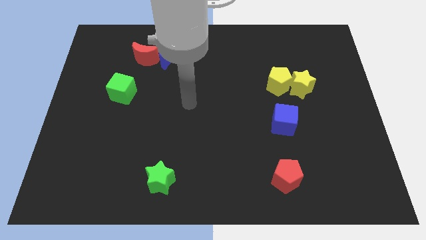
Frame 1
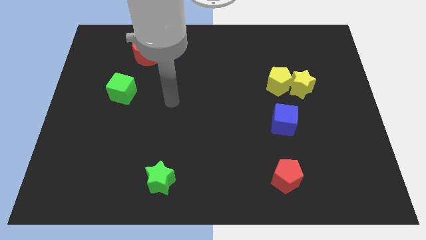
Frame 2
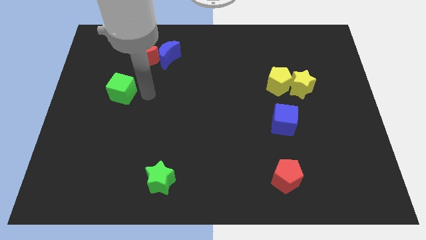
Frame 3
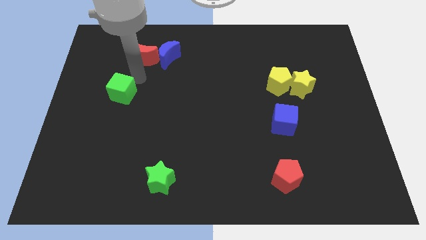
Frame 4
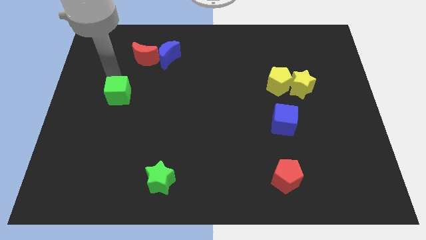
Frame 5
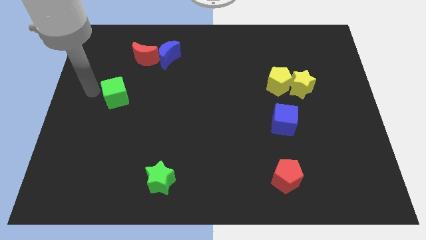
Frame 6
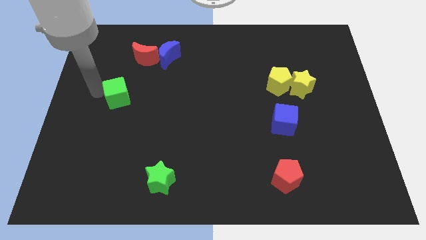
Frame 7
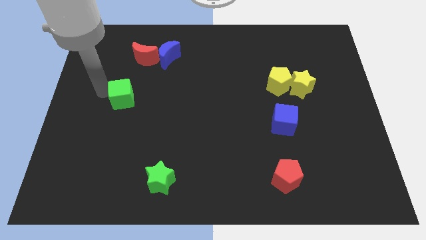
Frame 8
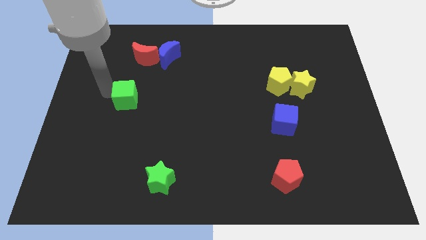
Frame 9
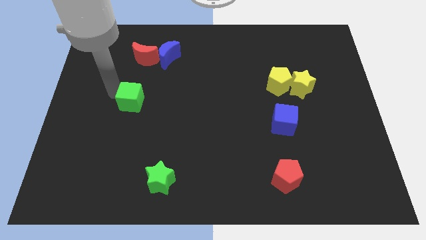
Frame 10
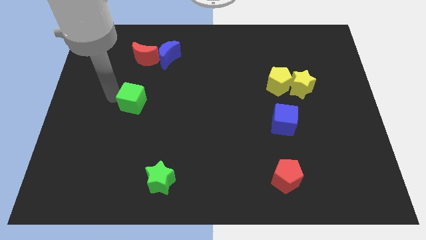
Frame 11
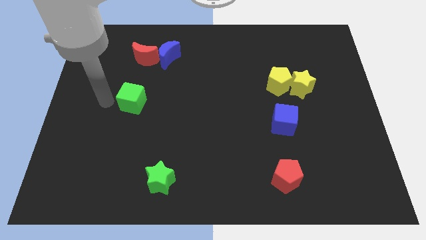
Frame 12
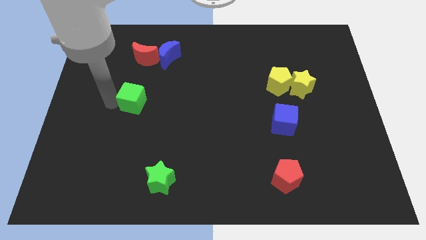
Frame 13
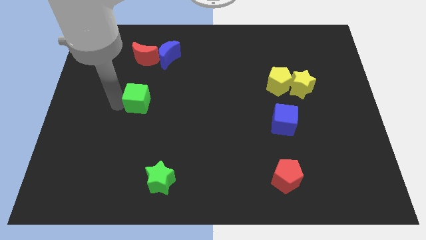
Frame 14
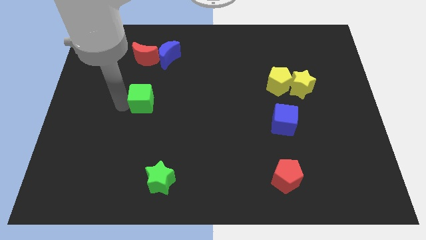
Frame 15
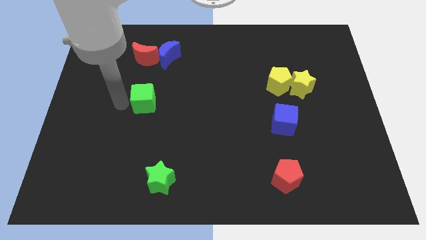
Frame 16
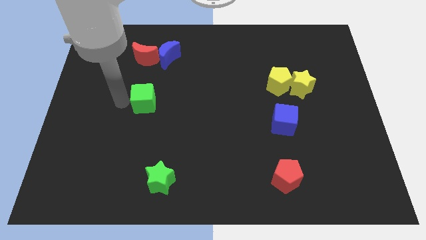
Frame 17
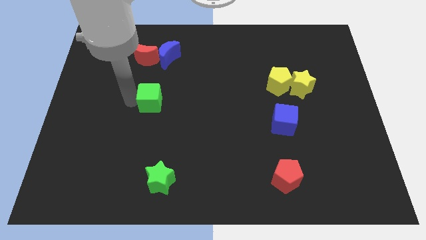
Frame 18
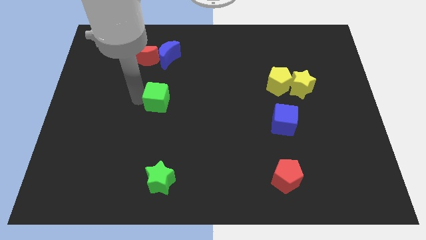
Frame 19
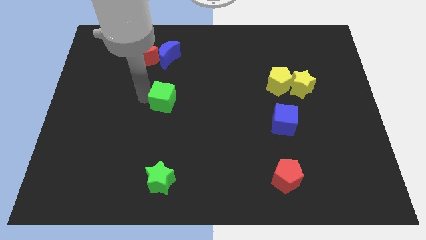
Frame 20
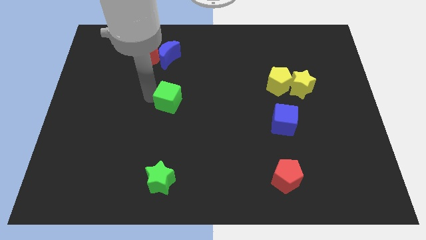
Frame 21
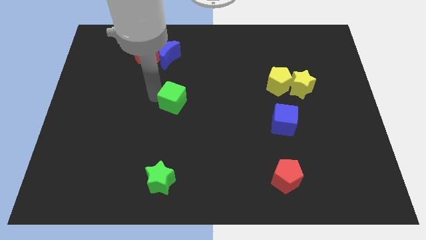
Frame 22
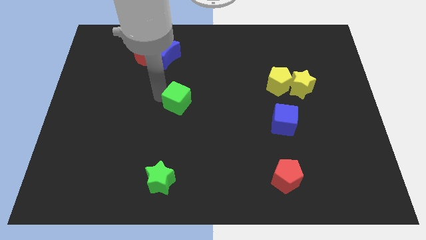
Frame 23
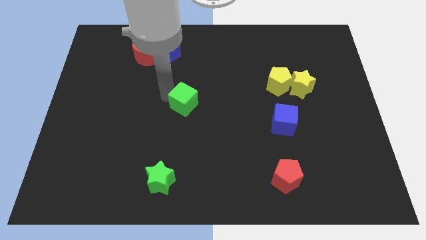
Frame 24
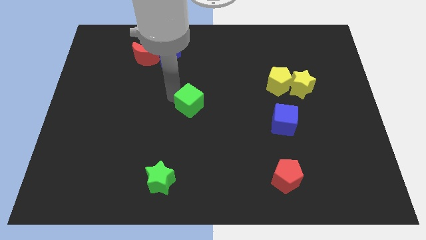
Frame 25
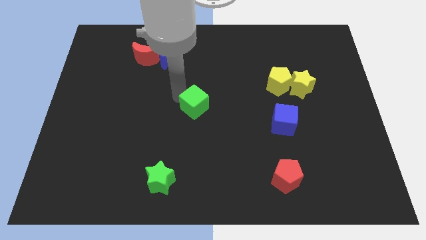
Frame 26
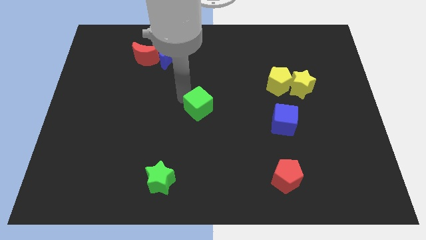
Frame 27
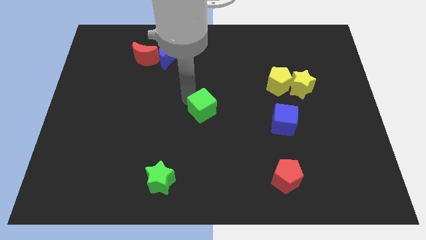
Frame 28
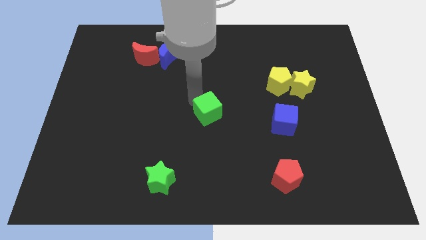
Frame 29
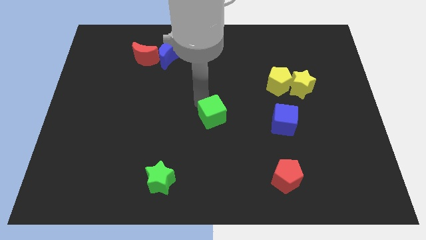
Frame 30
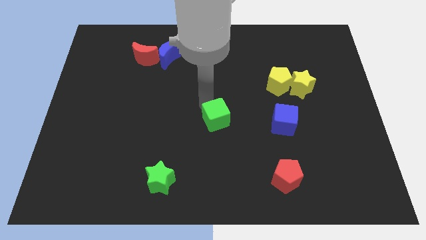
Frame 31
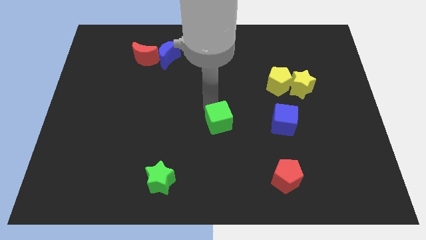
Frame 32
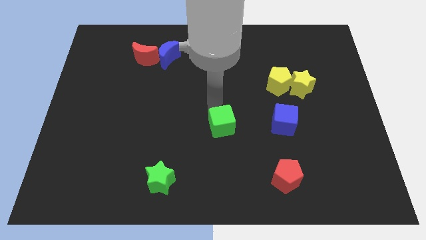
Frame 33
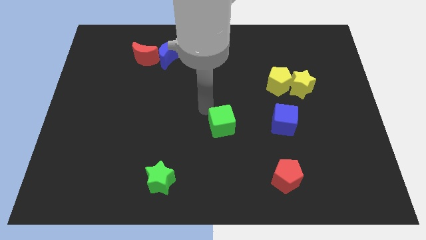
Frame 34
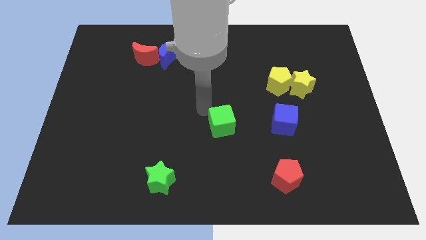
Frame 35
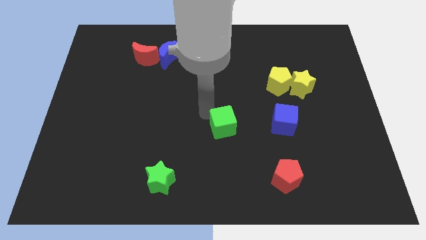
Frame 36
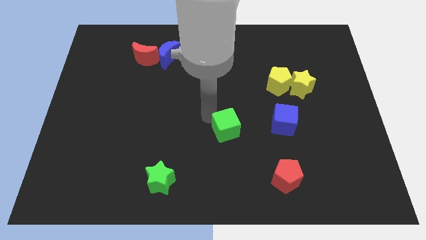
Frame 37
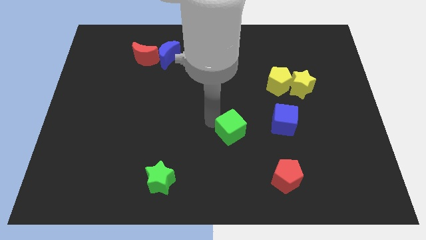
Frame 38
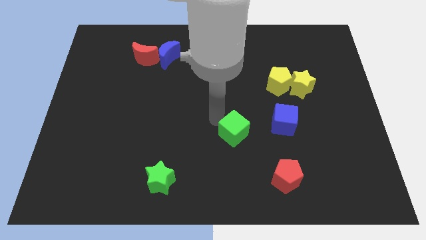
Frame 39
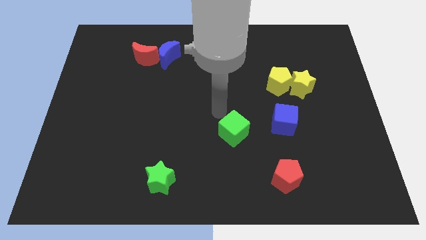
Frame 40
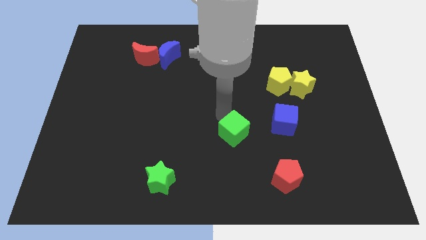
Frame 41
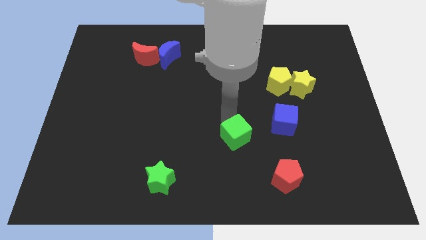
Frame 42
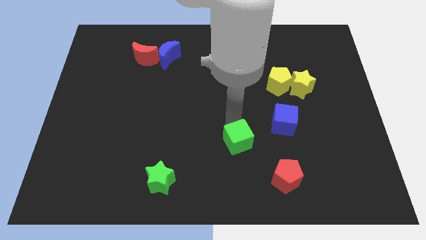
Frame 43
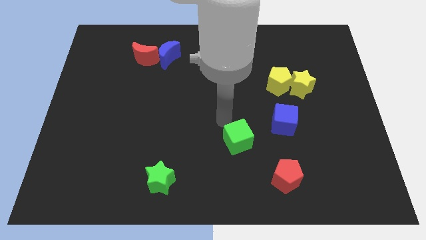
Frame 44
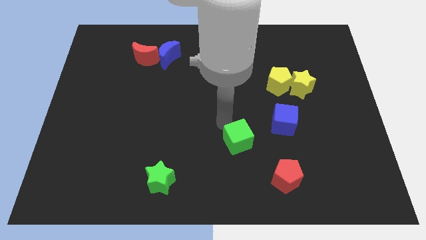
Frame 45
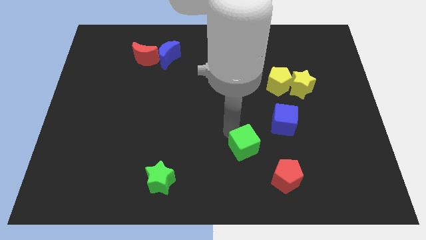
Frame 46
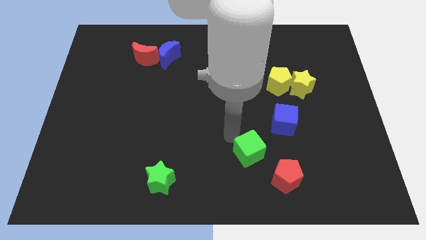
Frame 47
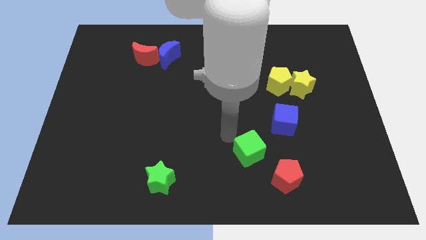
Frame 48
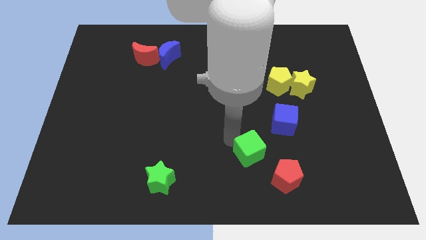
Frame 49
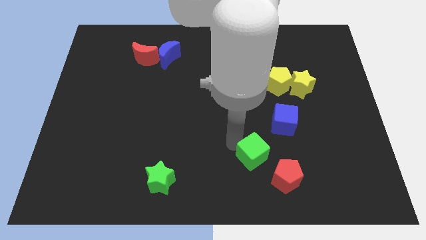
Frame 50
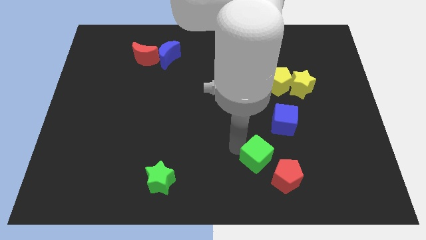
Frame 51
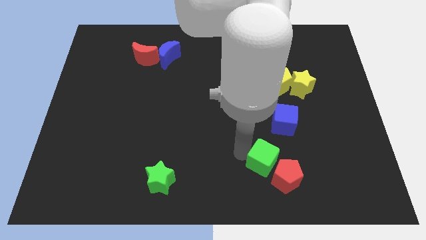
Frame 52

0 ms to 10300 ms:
slide the green cube close to the red pentagon

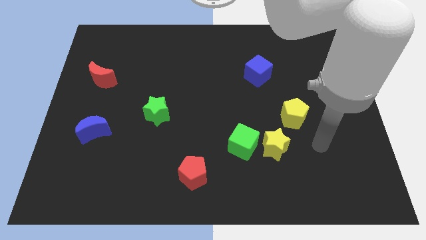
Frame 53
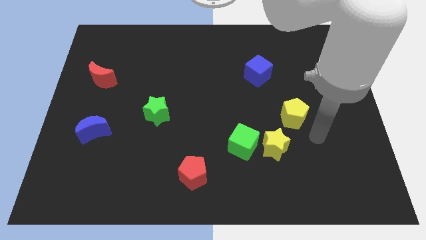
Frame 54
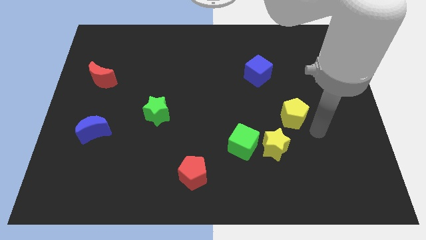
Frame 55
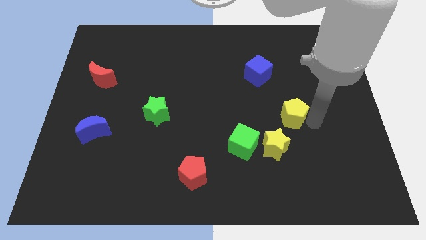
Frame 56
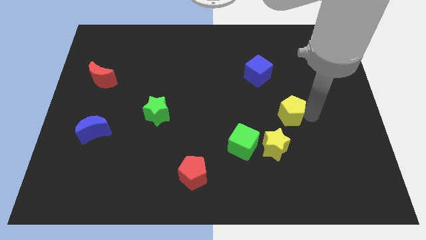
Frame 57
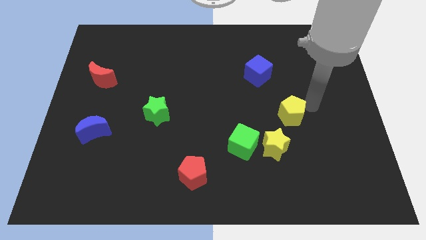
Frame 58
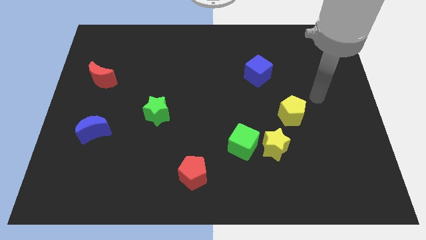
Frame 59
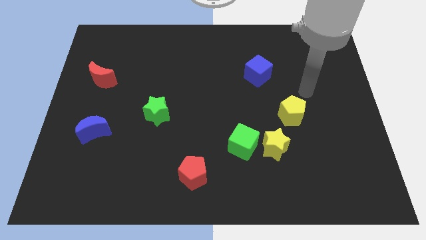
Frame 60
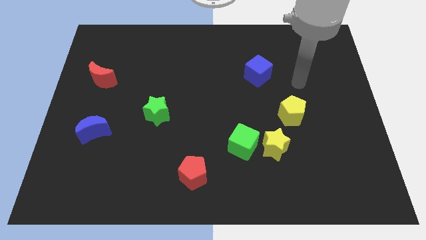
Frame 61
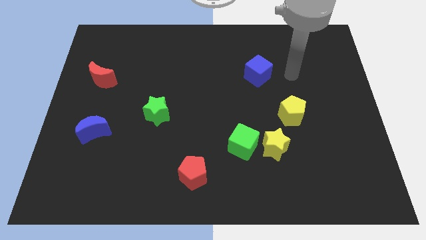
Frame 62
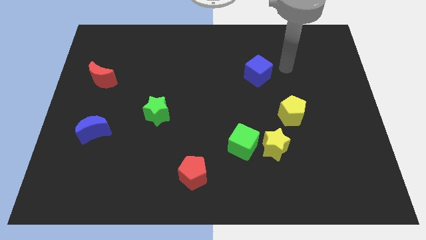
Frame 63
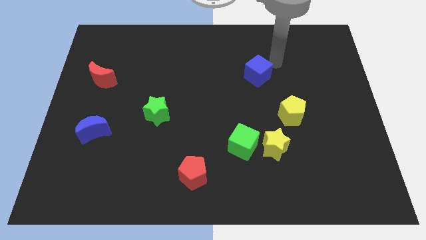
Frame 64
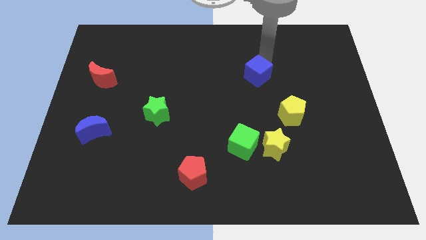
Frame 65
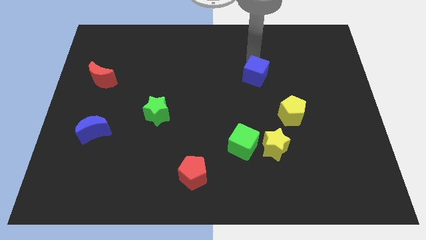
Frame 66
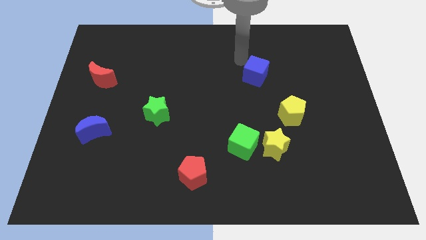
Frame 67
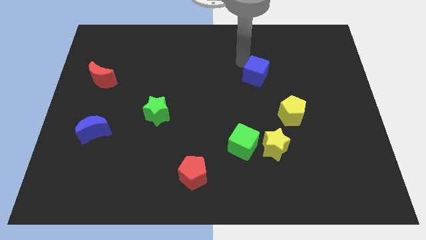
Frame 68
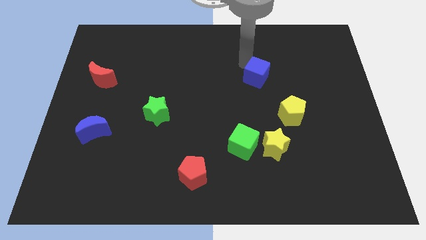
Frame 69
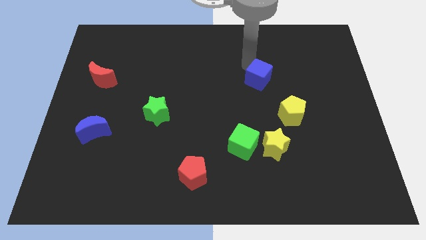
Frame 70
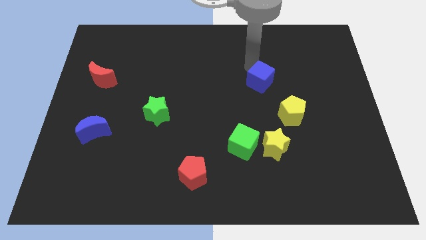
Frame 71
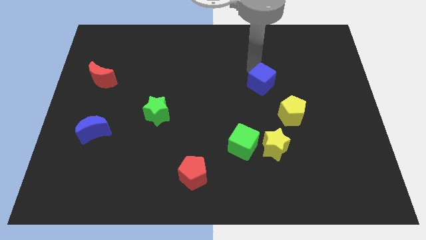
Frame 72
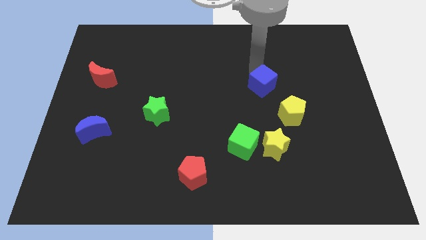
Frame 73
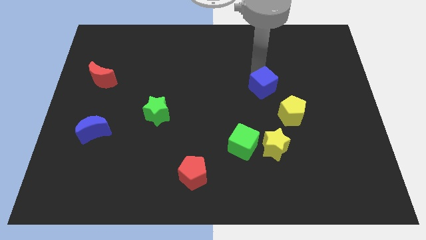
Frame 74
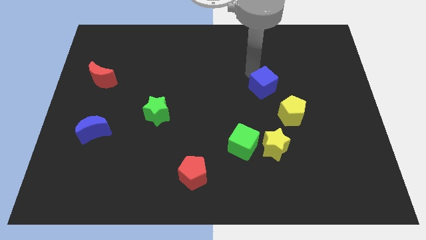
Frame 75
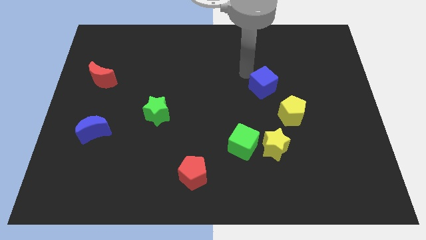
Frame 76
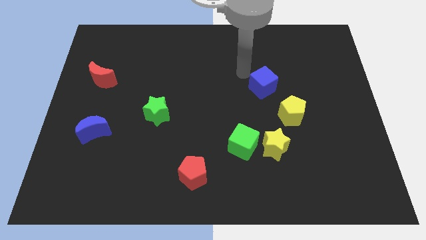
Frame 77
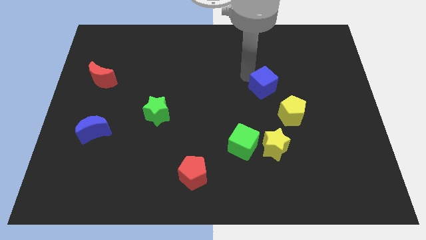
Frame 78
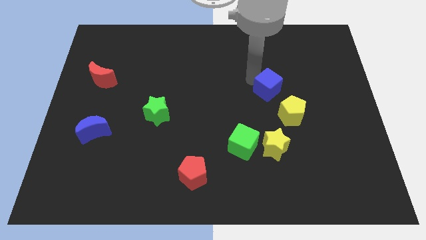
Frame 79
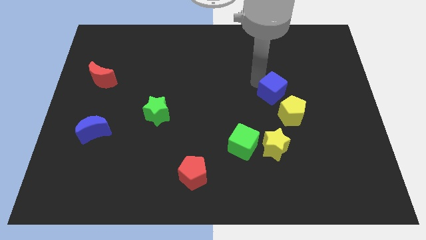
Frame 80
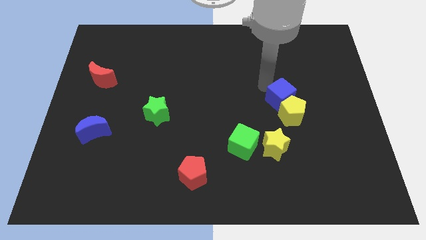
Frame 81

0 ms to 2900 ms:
push the blue cube to the yellow pentagon
